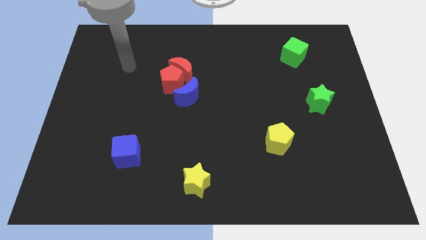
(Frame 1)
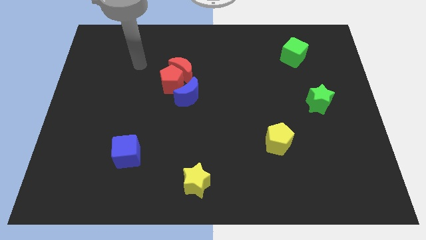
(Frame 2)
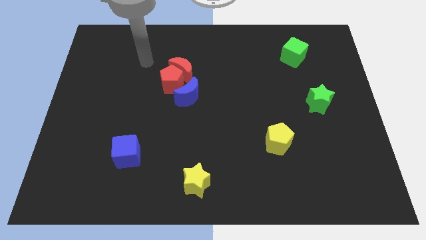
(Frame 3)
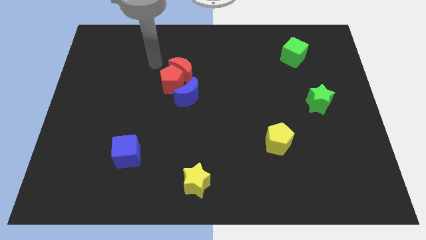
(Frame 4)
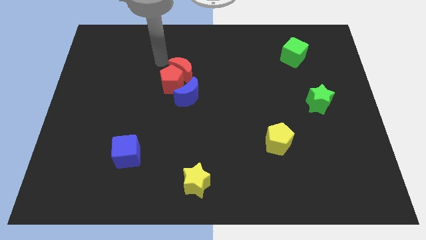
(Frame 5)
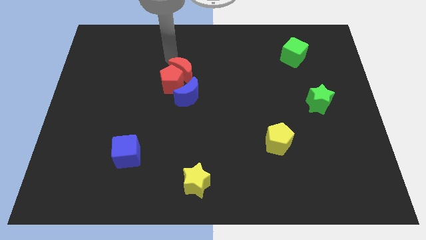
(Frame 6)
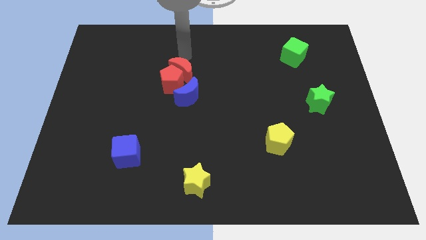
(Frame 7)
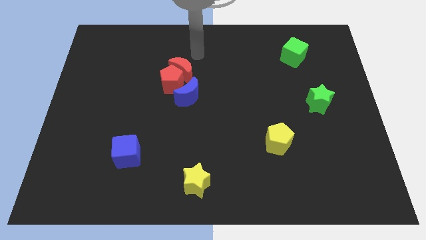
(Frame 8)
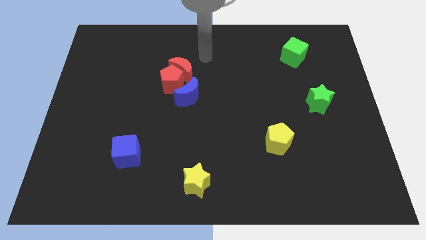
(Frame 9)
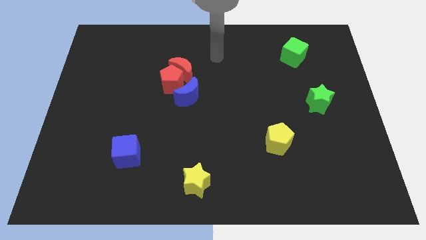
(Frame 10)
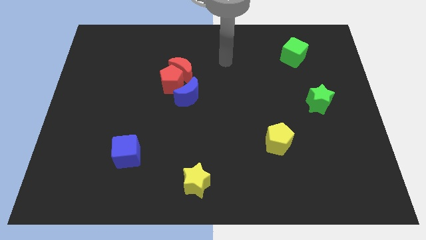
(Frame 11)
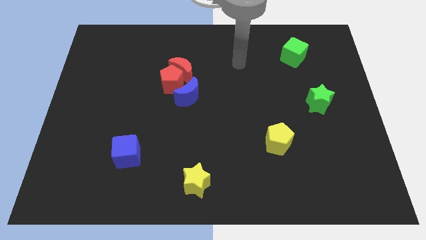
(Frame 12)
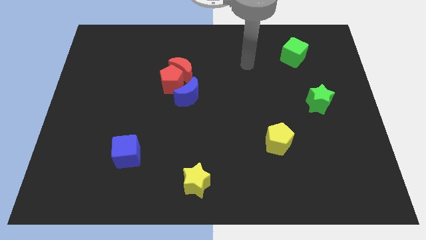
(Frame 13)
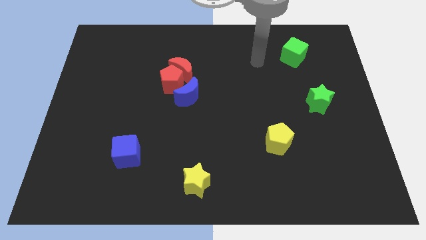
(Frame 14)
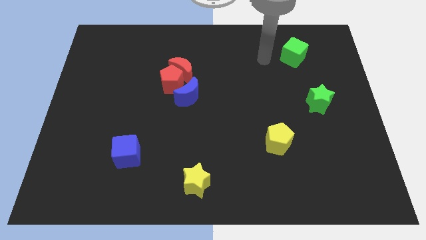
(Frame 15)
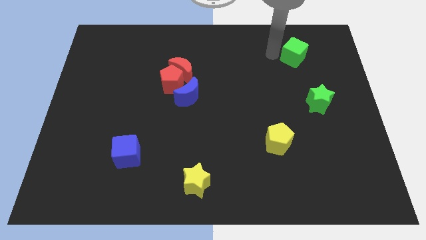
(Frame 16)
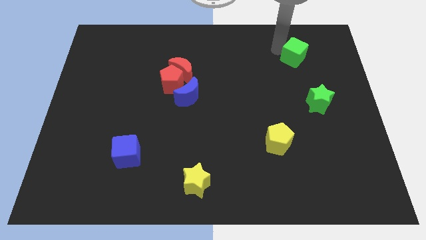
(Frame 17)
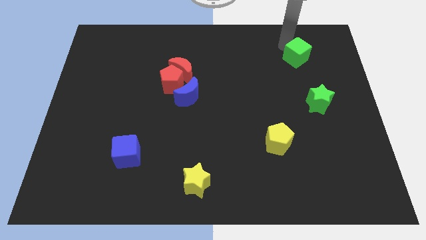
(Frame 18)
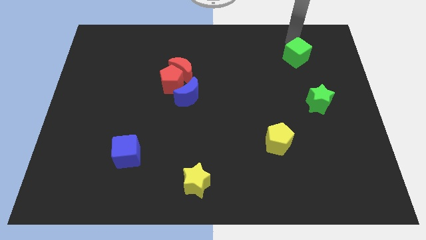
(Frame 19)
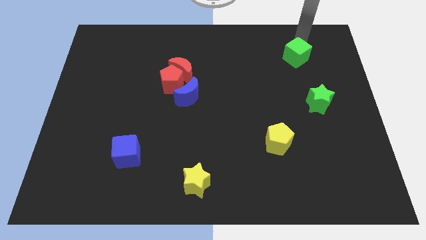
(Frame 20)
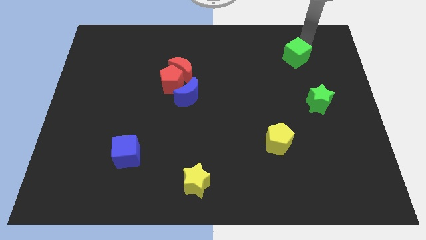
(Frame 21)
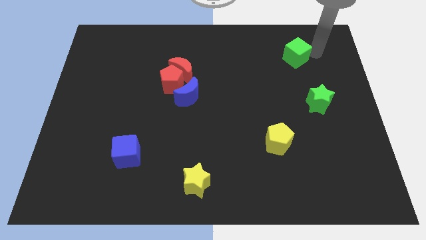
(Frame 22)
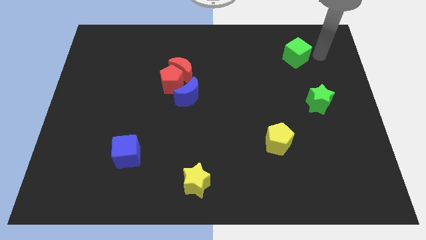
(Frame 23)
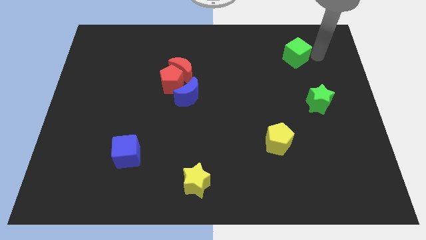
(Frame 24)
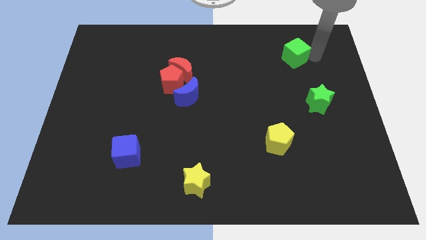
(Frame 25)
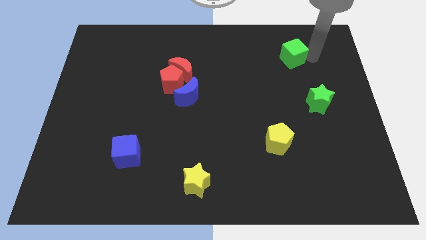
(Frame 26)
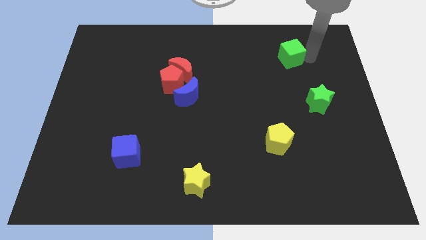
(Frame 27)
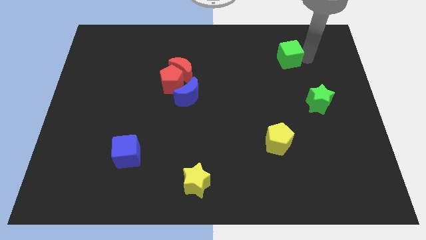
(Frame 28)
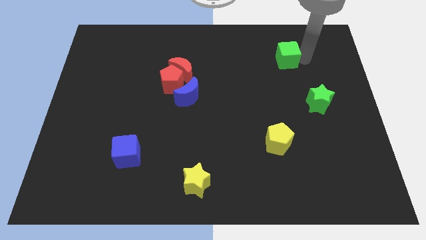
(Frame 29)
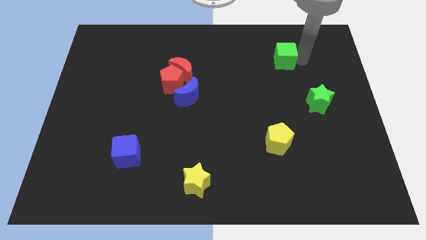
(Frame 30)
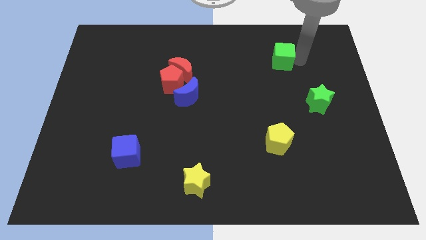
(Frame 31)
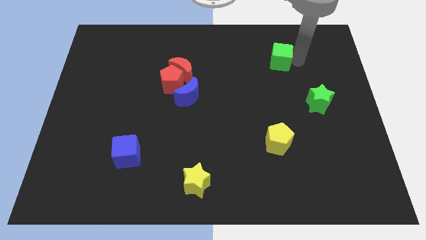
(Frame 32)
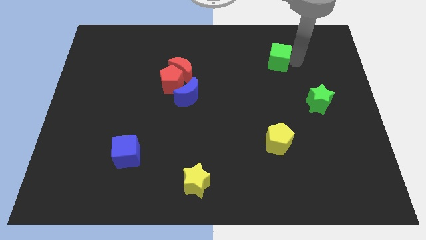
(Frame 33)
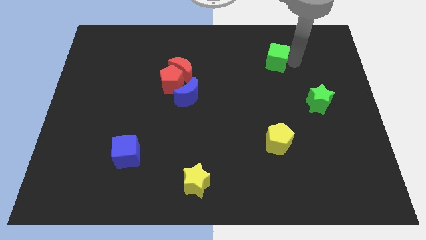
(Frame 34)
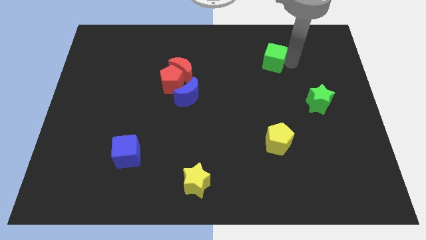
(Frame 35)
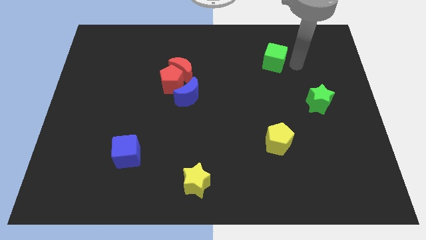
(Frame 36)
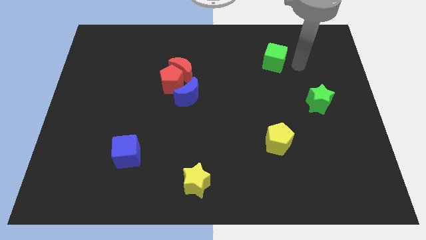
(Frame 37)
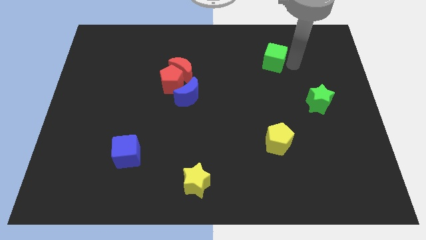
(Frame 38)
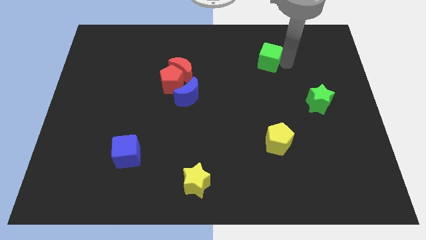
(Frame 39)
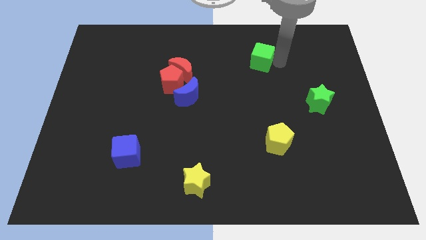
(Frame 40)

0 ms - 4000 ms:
slightly slide the green cube left

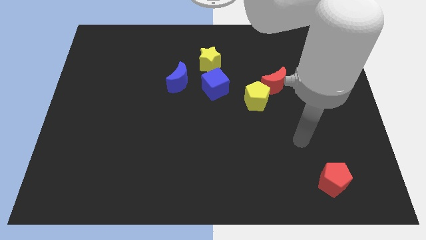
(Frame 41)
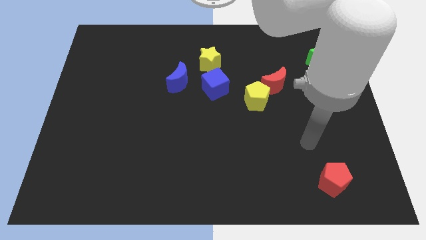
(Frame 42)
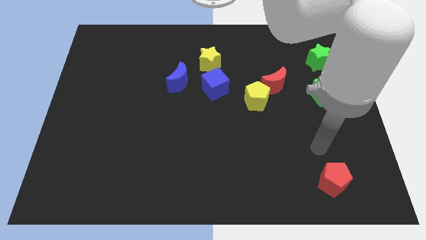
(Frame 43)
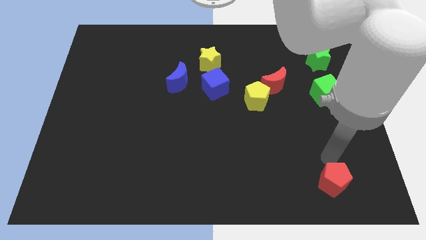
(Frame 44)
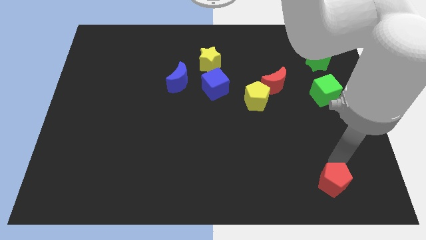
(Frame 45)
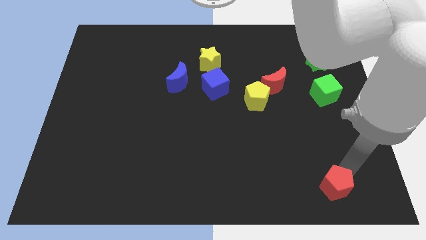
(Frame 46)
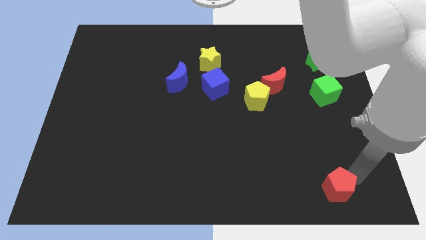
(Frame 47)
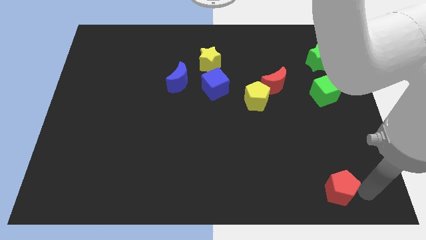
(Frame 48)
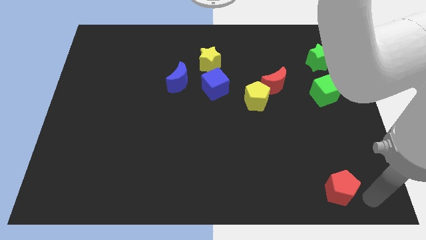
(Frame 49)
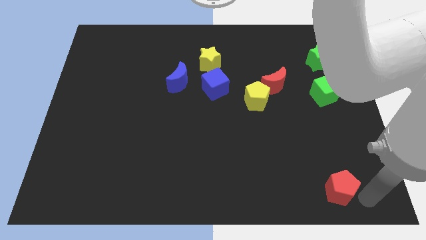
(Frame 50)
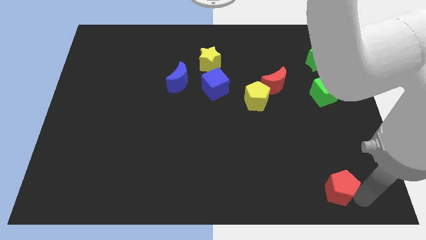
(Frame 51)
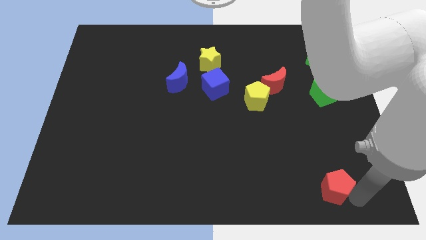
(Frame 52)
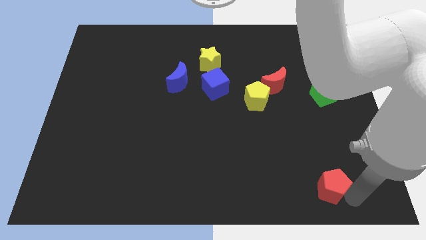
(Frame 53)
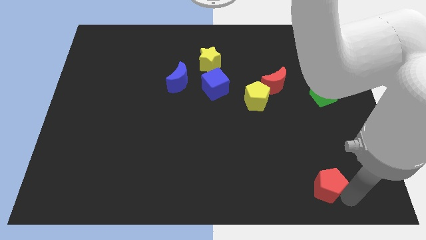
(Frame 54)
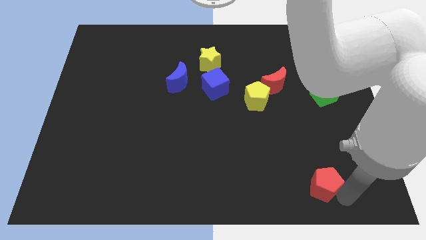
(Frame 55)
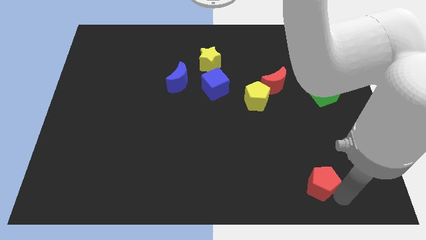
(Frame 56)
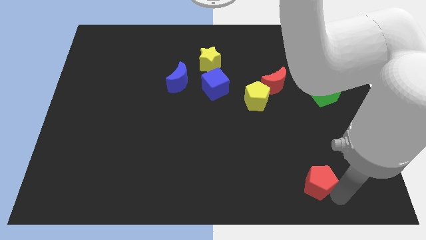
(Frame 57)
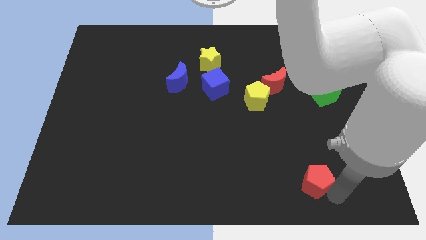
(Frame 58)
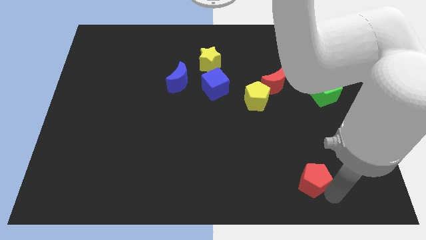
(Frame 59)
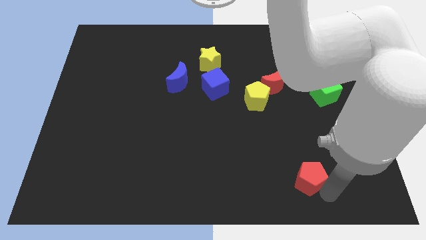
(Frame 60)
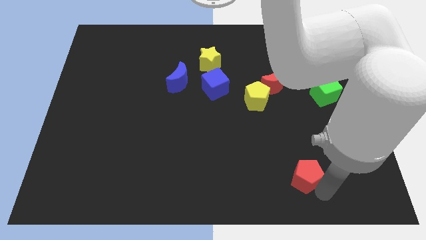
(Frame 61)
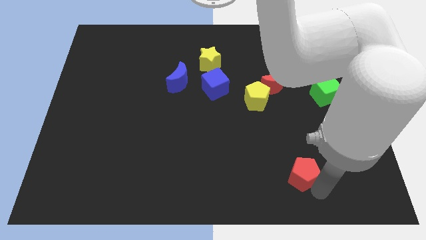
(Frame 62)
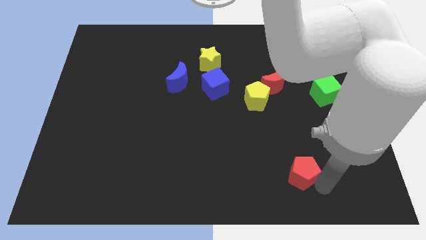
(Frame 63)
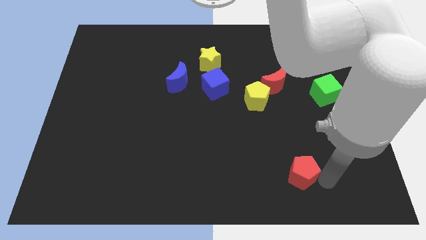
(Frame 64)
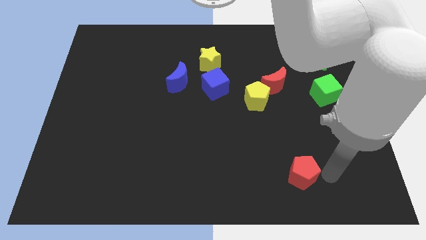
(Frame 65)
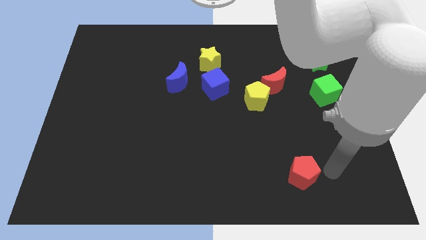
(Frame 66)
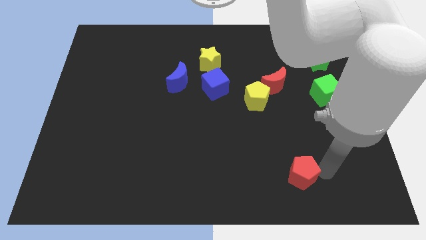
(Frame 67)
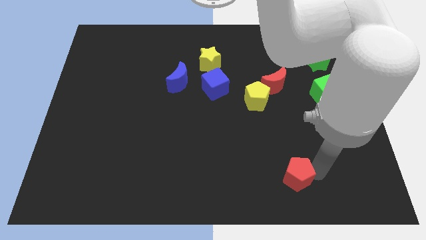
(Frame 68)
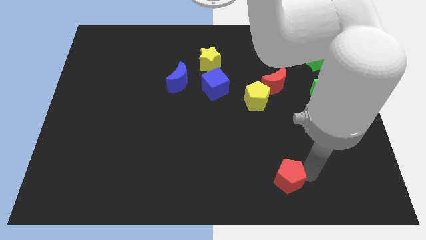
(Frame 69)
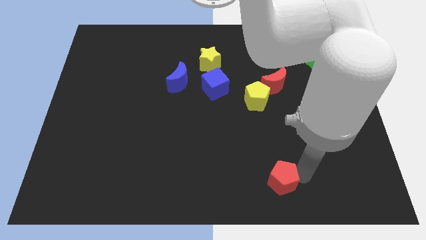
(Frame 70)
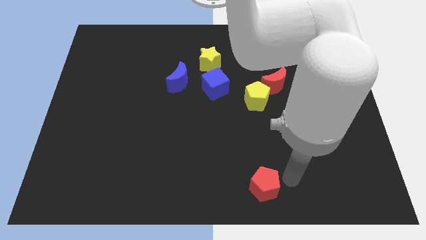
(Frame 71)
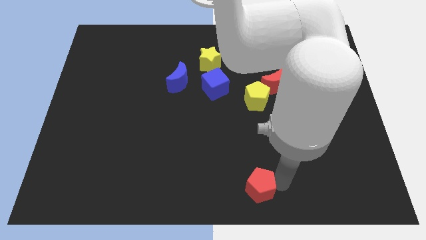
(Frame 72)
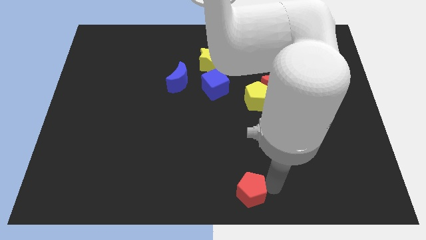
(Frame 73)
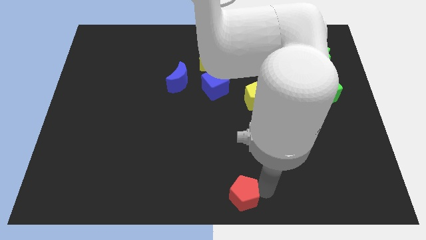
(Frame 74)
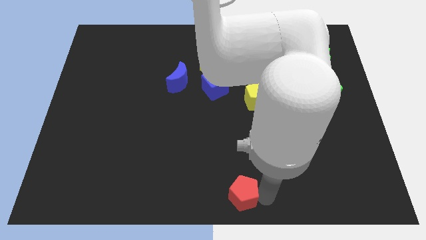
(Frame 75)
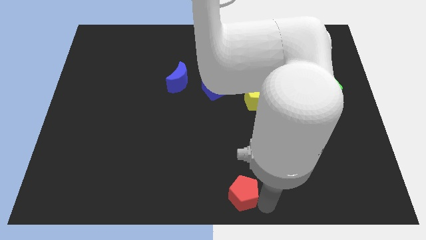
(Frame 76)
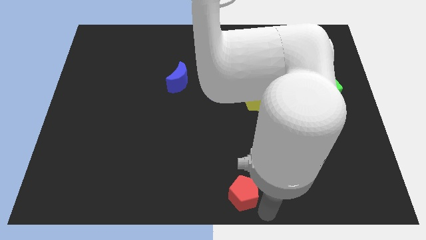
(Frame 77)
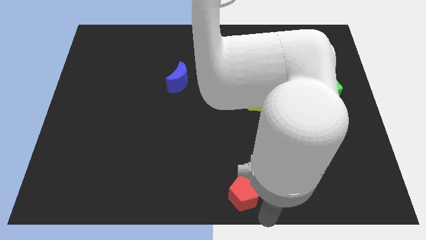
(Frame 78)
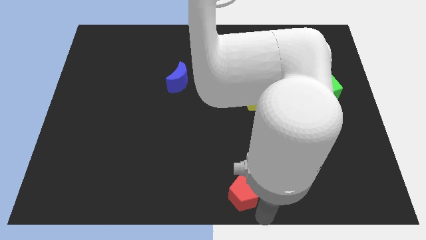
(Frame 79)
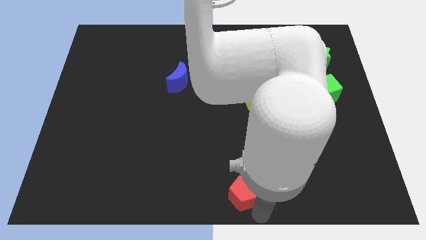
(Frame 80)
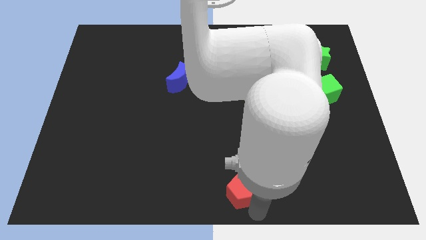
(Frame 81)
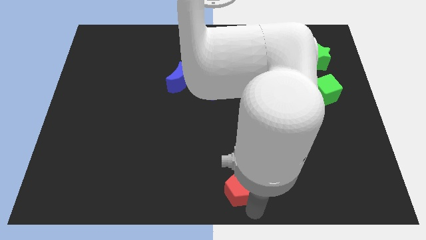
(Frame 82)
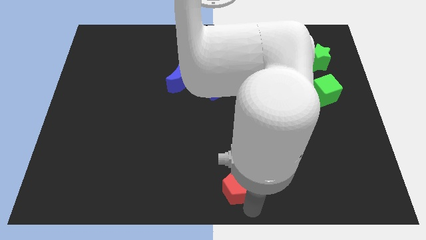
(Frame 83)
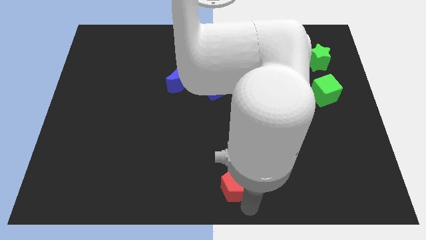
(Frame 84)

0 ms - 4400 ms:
push the red pentagon left

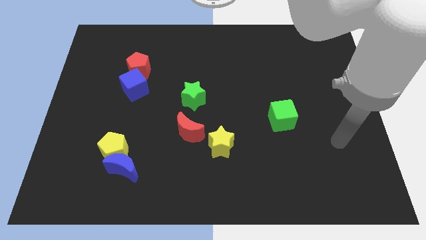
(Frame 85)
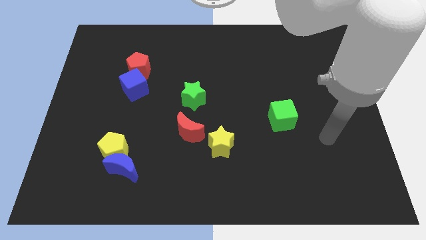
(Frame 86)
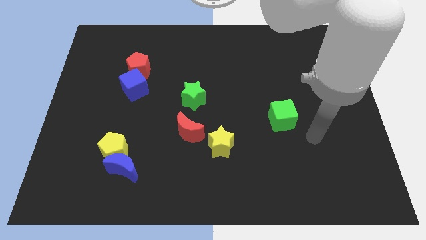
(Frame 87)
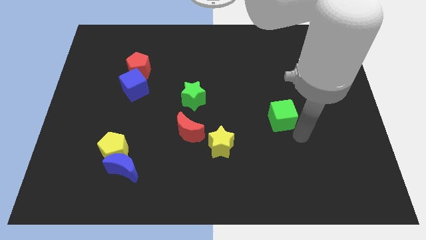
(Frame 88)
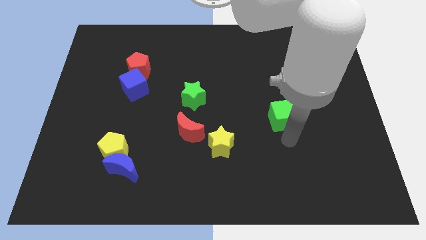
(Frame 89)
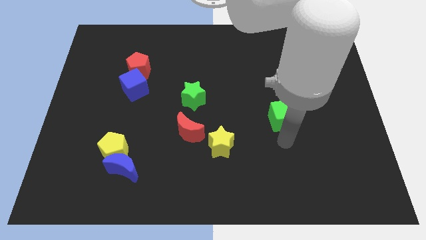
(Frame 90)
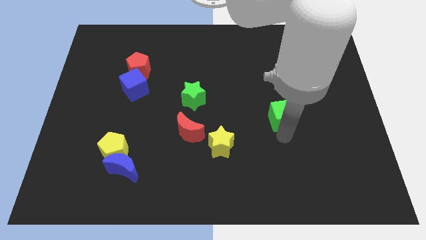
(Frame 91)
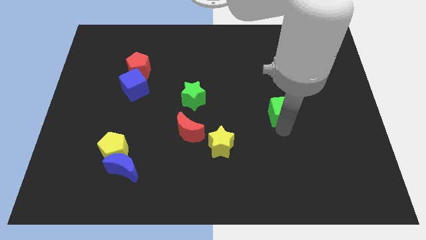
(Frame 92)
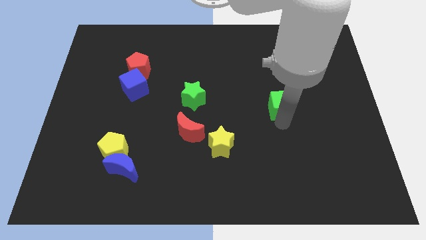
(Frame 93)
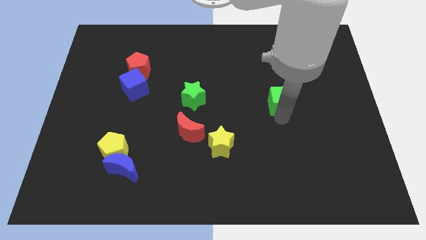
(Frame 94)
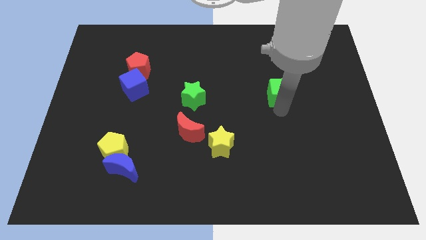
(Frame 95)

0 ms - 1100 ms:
push the green cube up slightly
